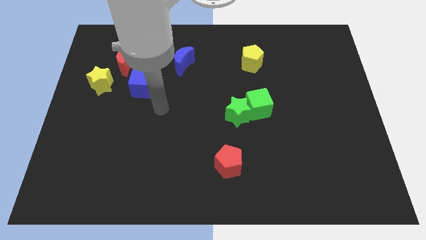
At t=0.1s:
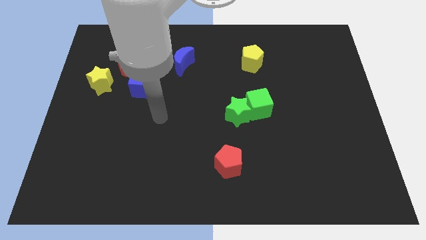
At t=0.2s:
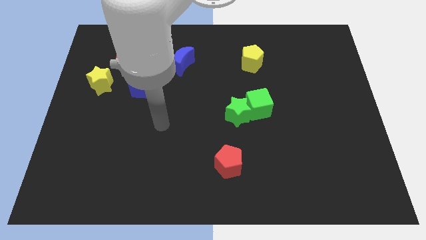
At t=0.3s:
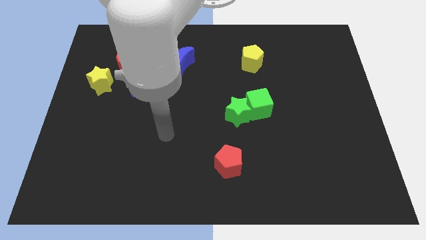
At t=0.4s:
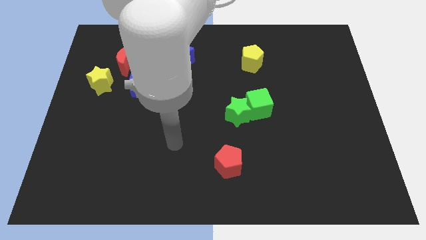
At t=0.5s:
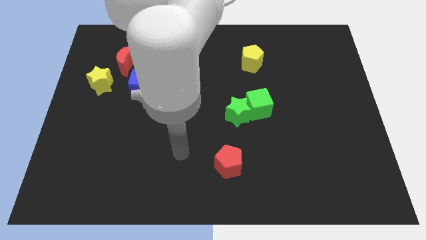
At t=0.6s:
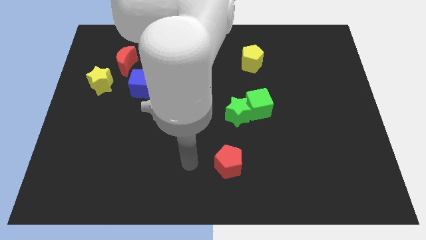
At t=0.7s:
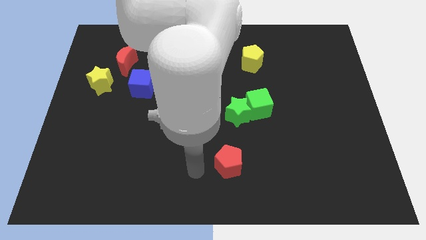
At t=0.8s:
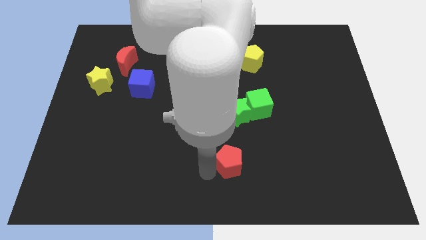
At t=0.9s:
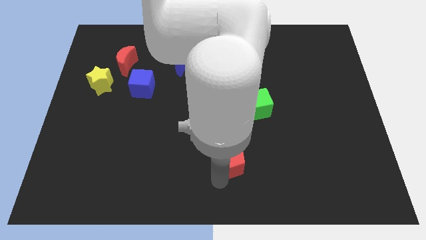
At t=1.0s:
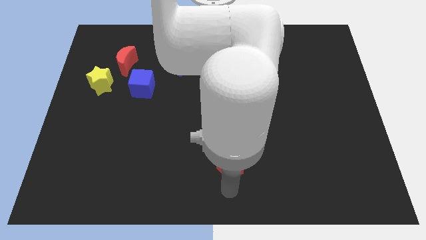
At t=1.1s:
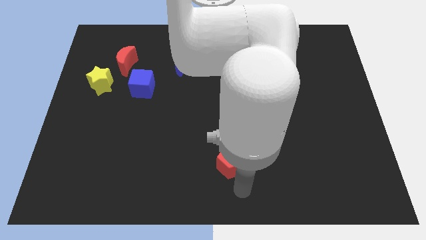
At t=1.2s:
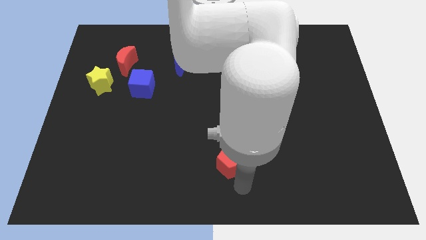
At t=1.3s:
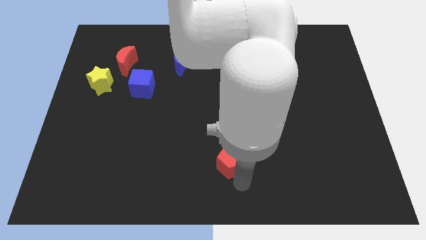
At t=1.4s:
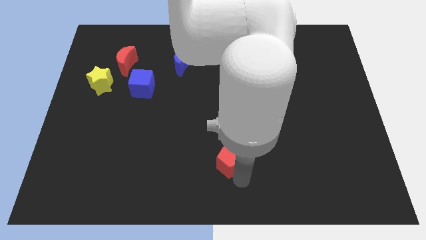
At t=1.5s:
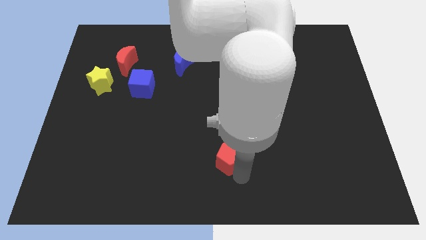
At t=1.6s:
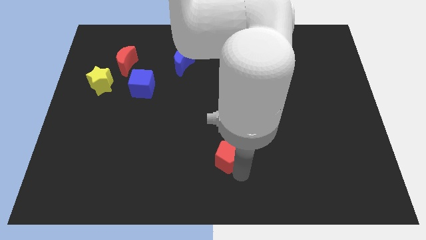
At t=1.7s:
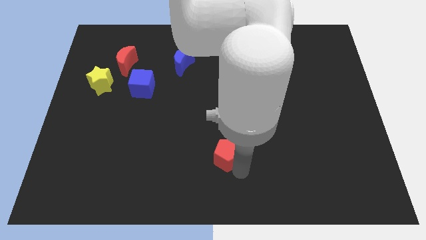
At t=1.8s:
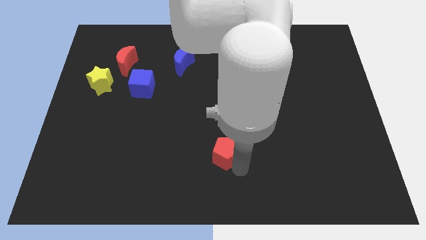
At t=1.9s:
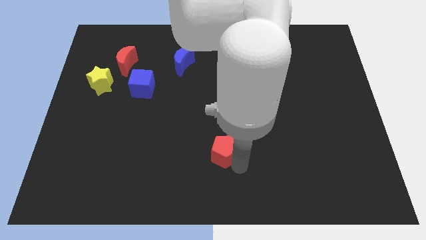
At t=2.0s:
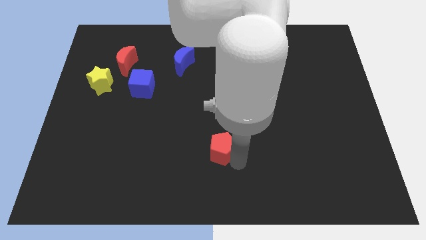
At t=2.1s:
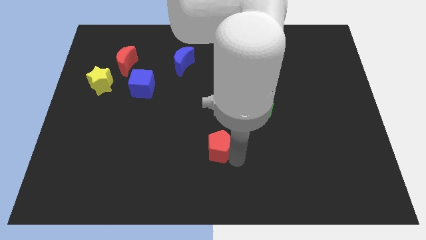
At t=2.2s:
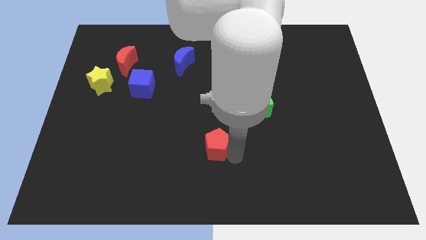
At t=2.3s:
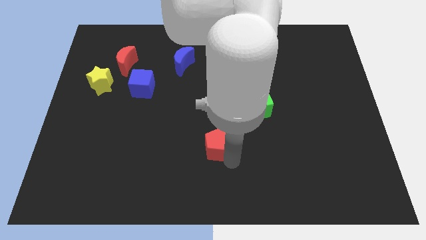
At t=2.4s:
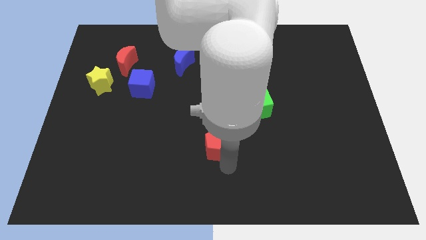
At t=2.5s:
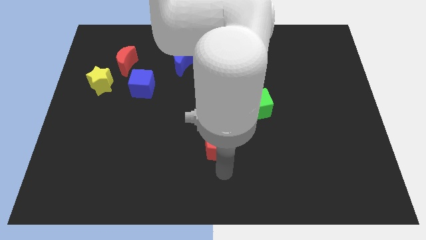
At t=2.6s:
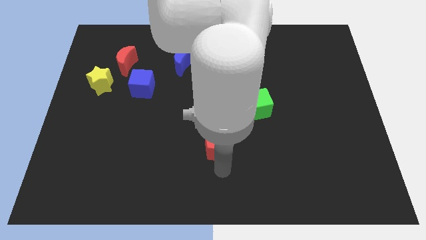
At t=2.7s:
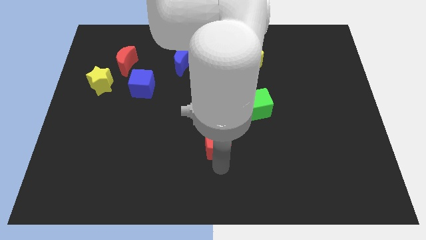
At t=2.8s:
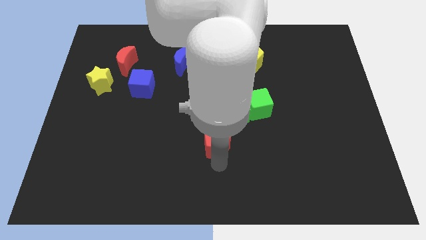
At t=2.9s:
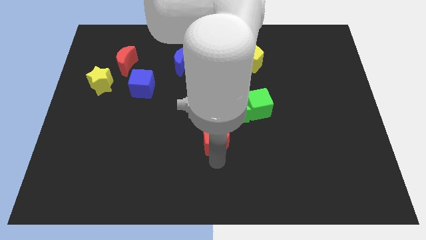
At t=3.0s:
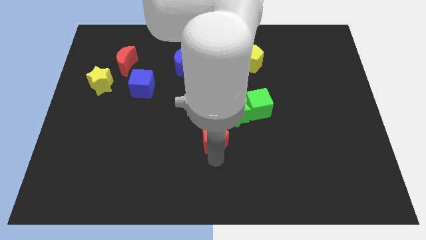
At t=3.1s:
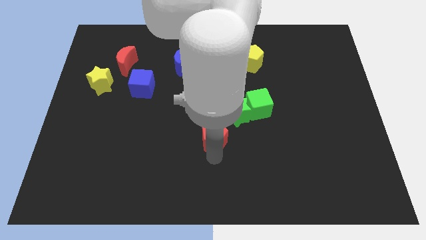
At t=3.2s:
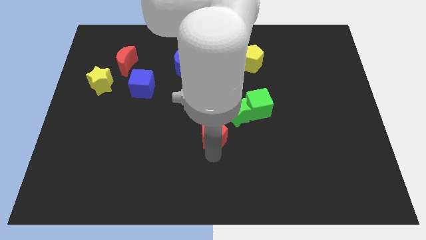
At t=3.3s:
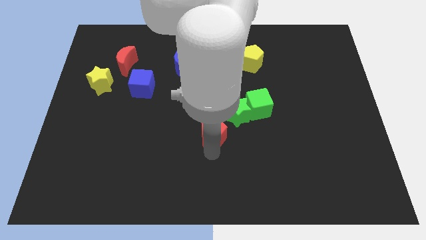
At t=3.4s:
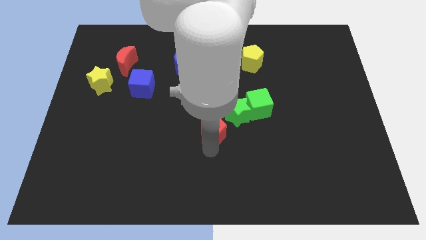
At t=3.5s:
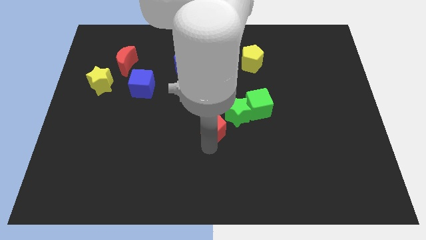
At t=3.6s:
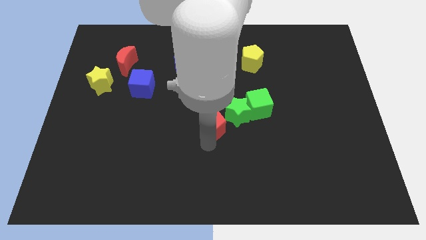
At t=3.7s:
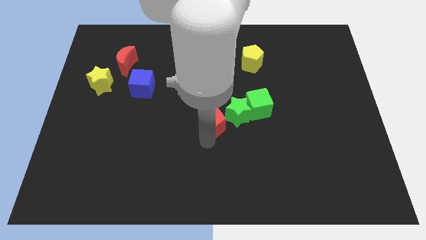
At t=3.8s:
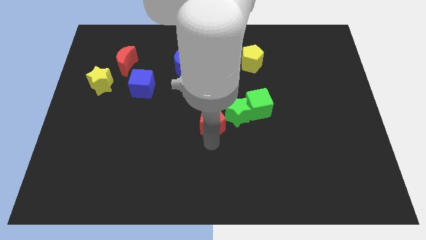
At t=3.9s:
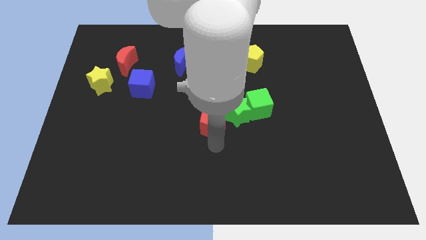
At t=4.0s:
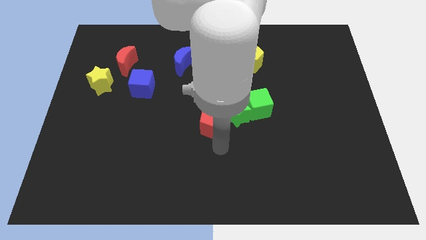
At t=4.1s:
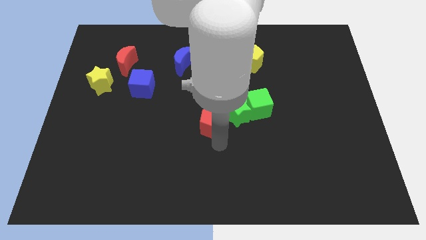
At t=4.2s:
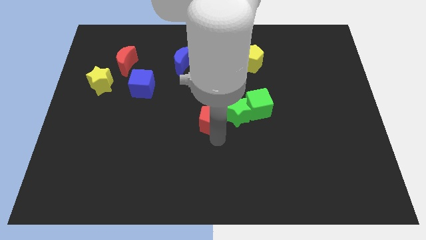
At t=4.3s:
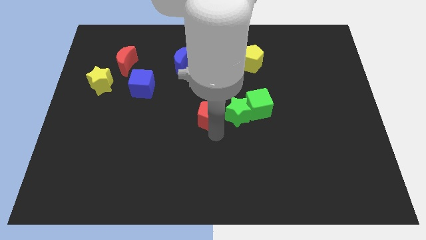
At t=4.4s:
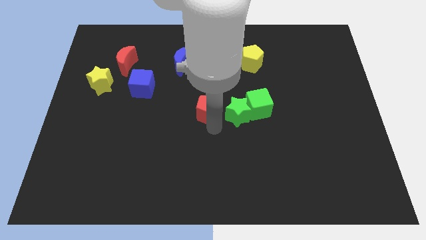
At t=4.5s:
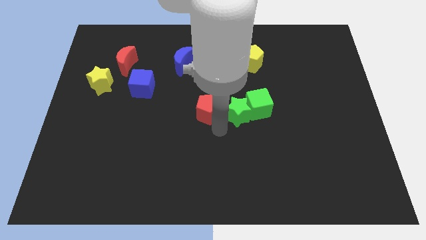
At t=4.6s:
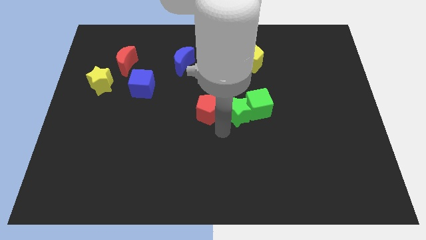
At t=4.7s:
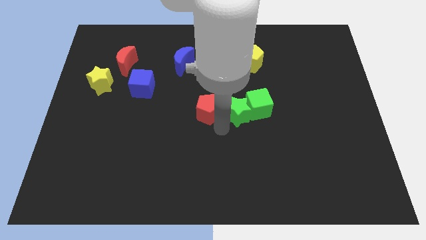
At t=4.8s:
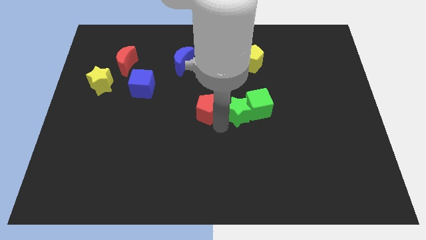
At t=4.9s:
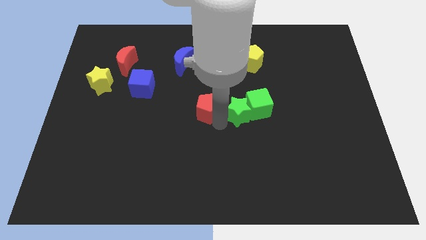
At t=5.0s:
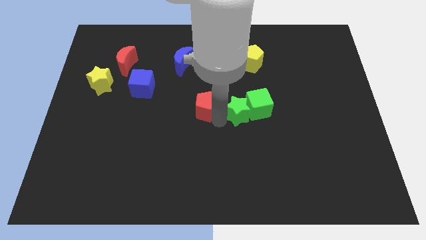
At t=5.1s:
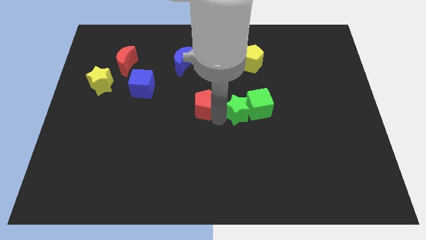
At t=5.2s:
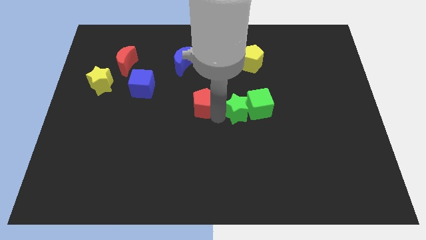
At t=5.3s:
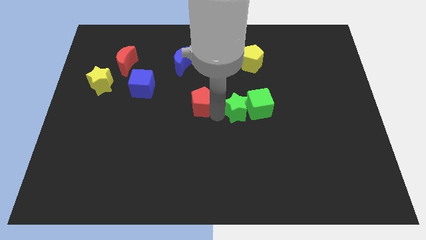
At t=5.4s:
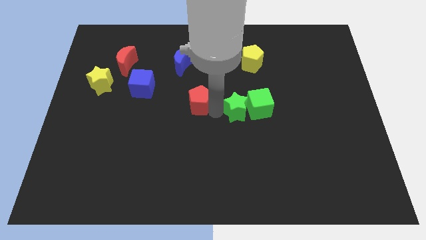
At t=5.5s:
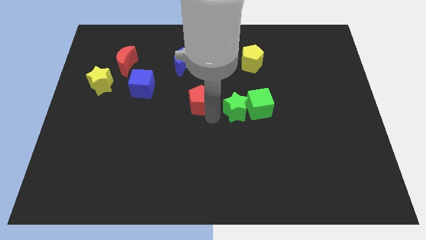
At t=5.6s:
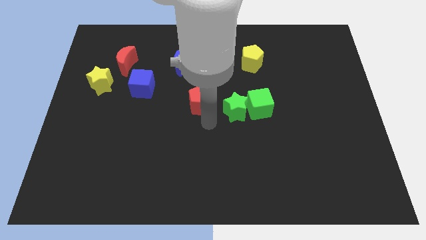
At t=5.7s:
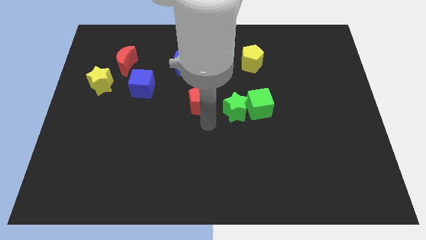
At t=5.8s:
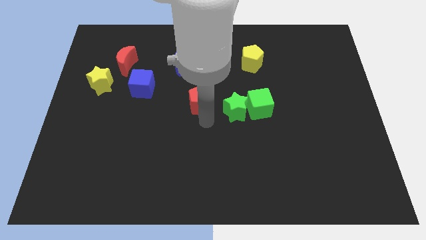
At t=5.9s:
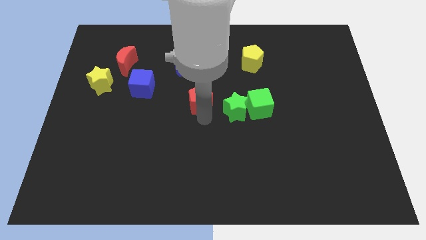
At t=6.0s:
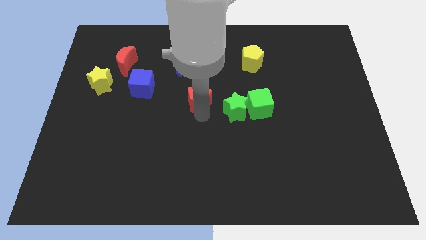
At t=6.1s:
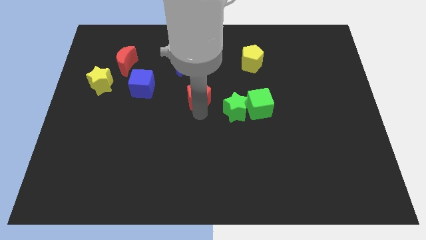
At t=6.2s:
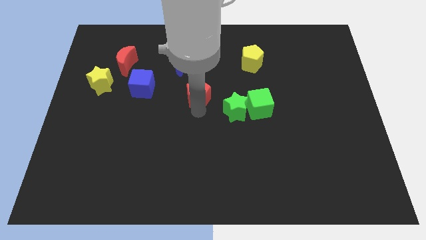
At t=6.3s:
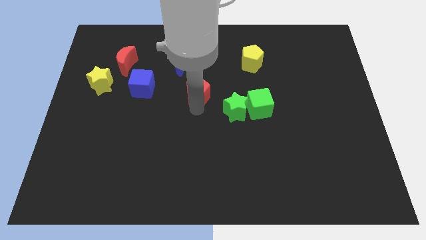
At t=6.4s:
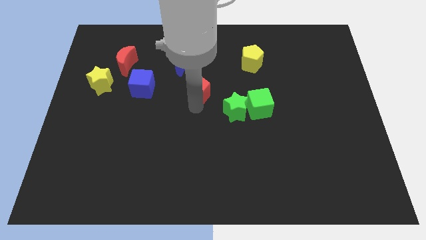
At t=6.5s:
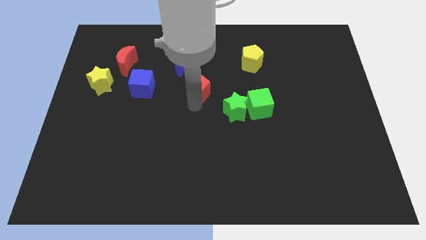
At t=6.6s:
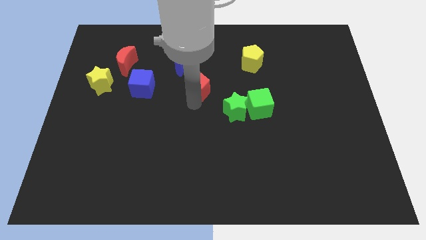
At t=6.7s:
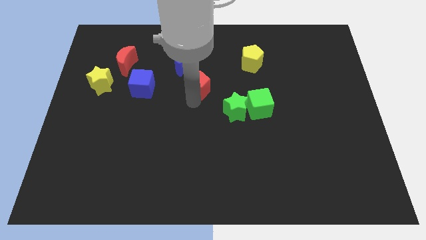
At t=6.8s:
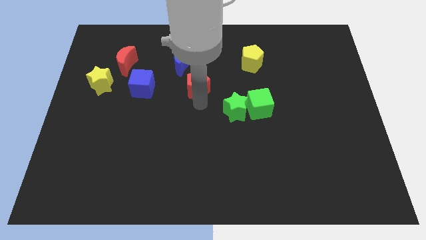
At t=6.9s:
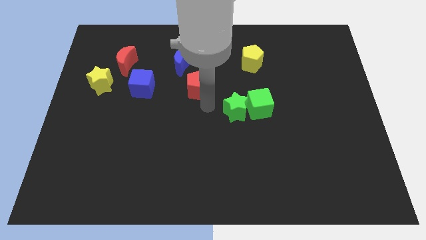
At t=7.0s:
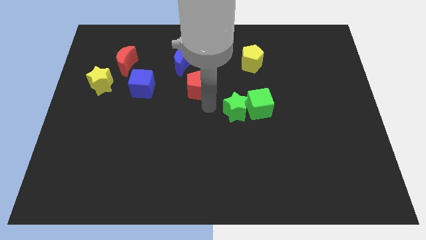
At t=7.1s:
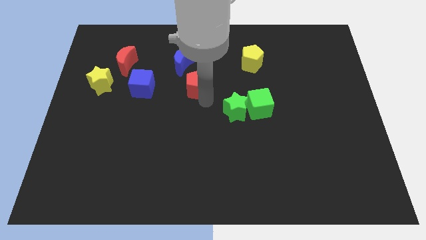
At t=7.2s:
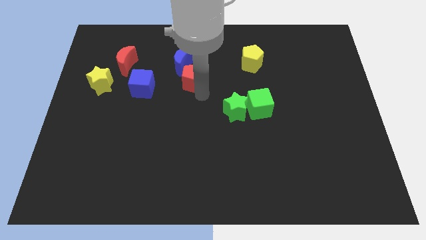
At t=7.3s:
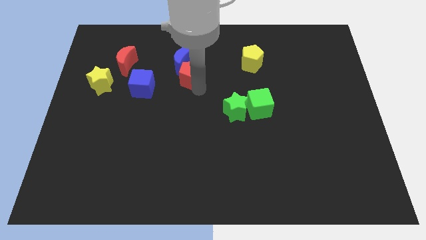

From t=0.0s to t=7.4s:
put the red pentagon close to the blue moon
